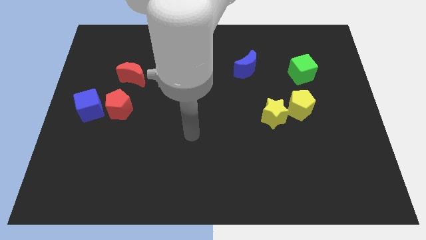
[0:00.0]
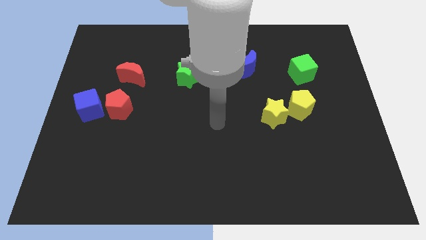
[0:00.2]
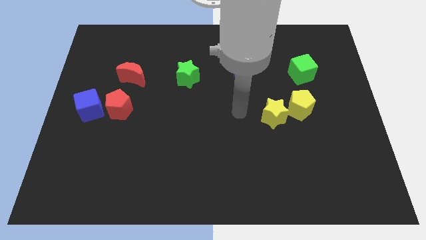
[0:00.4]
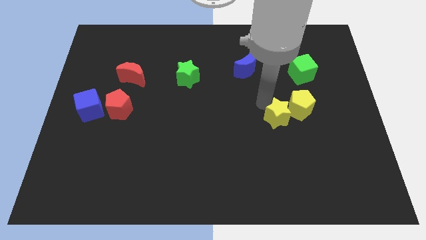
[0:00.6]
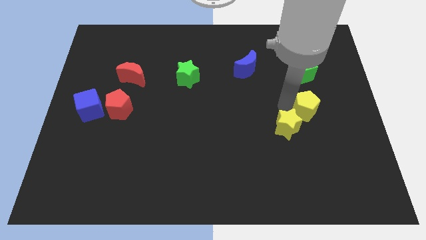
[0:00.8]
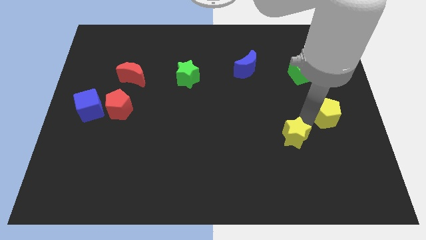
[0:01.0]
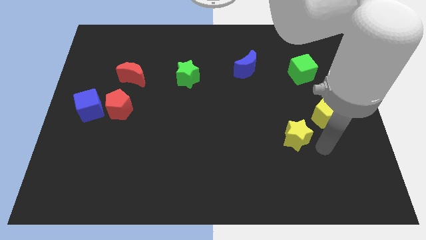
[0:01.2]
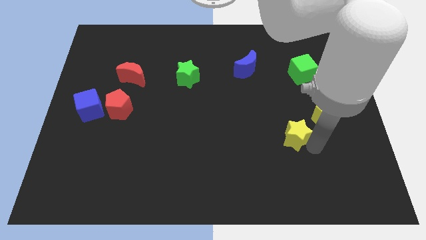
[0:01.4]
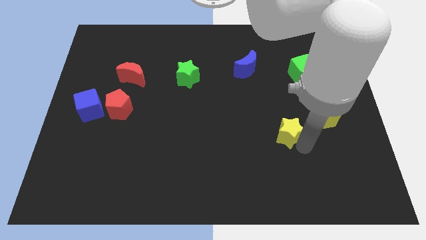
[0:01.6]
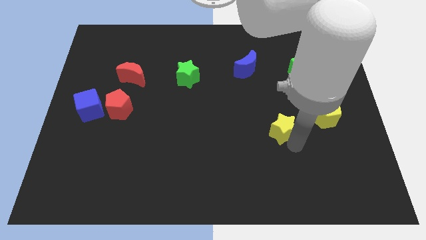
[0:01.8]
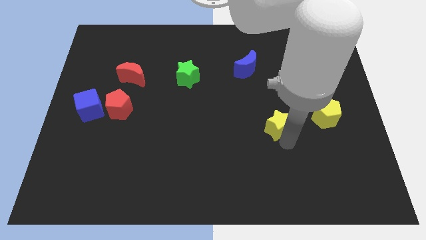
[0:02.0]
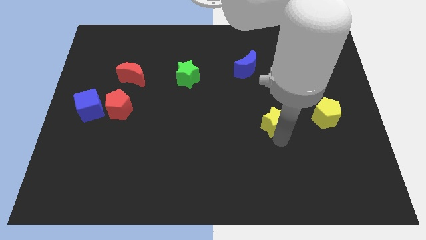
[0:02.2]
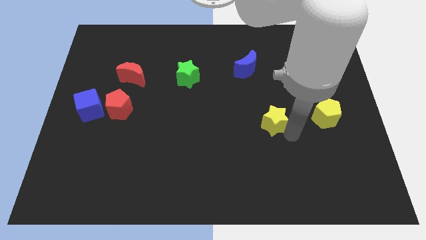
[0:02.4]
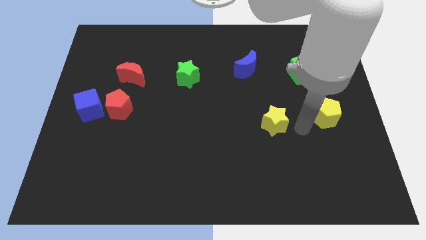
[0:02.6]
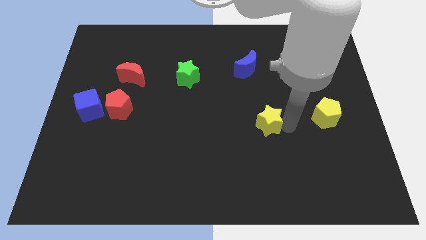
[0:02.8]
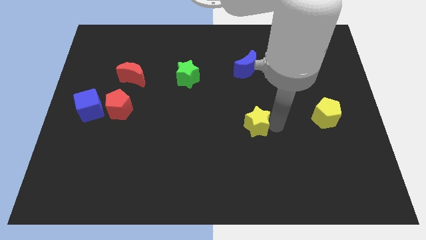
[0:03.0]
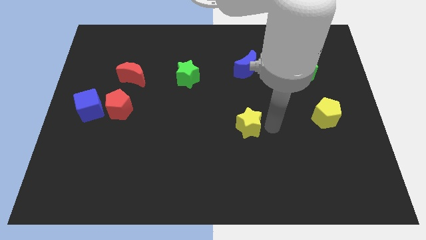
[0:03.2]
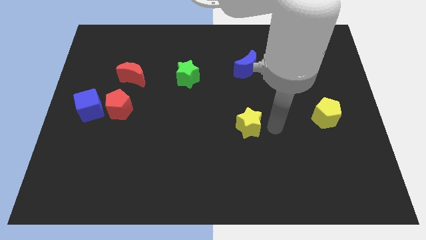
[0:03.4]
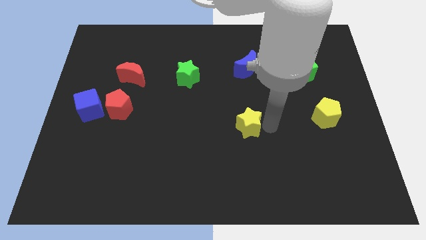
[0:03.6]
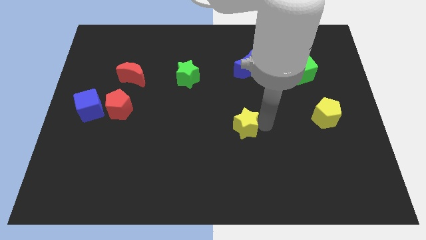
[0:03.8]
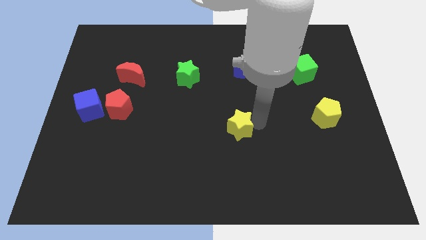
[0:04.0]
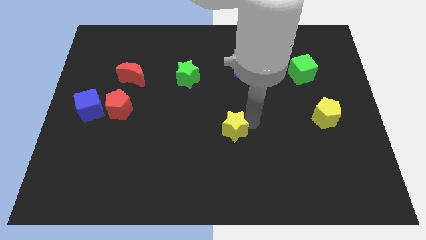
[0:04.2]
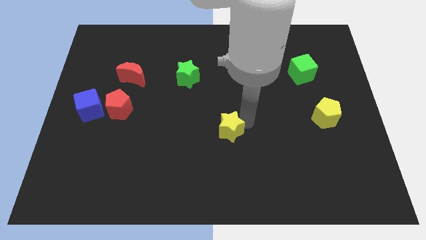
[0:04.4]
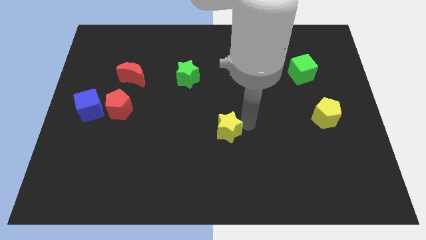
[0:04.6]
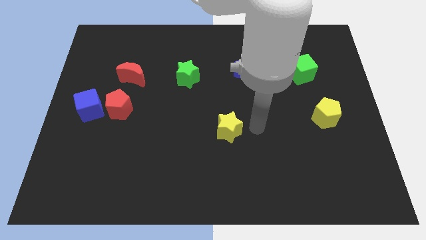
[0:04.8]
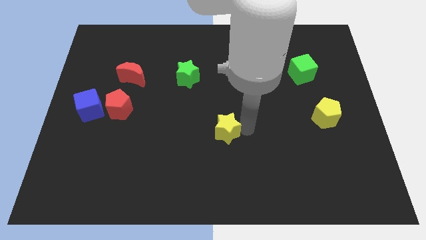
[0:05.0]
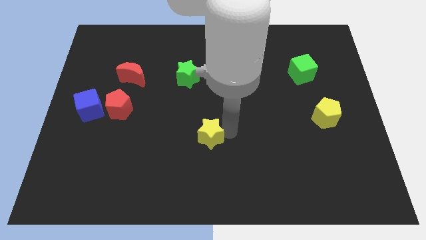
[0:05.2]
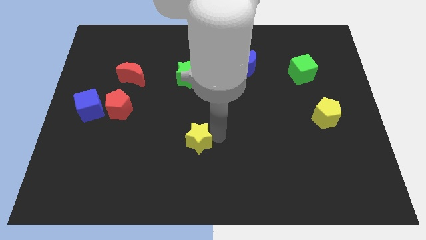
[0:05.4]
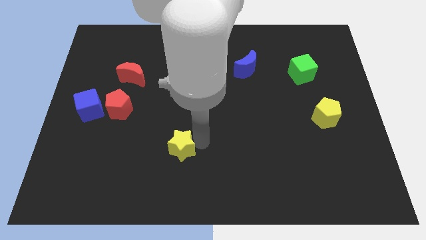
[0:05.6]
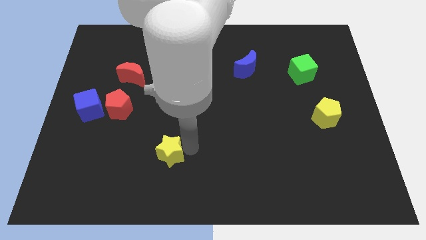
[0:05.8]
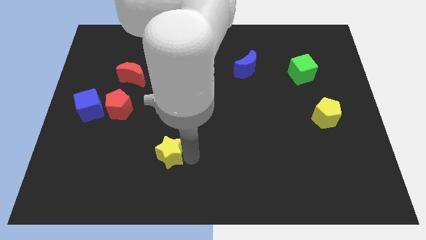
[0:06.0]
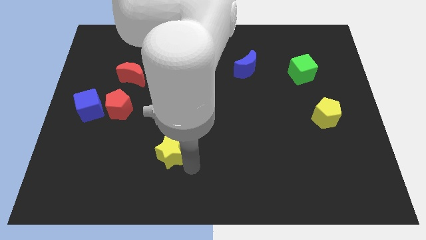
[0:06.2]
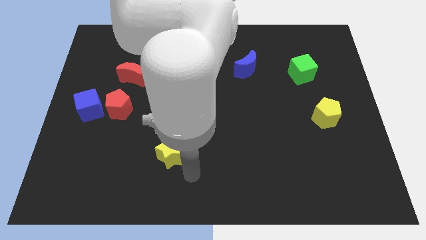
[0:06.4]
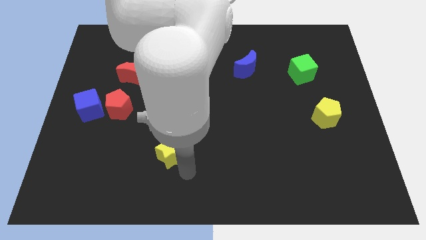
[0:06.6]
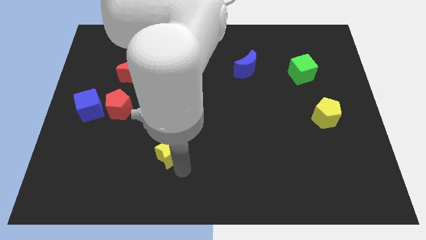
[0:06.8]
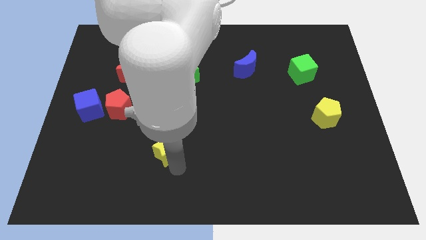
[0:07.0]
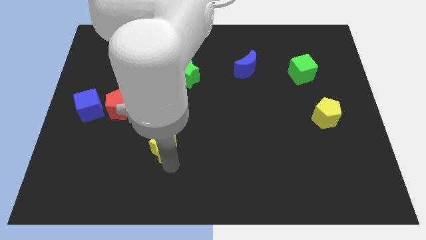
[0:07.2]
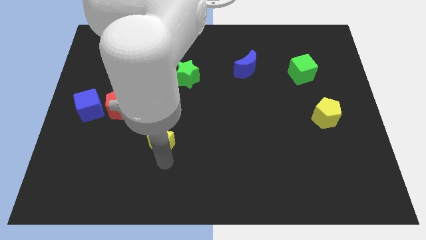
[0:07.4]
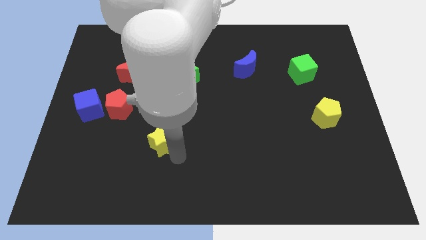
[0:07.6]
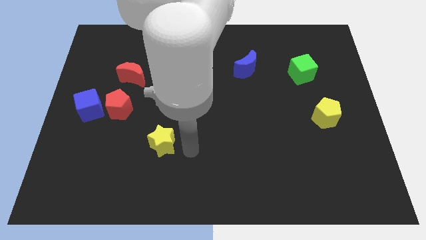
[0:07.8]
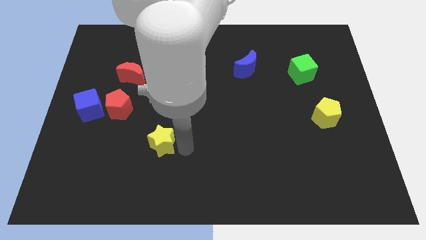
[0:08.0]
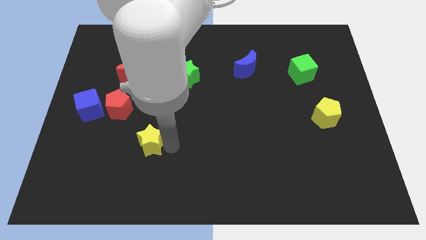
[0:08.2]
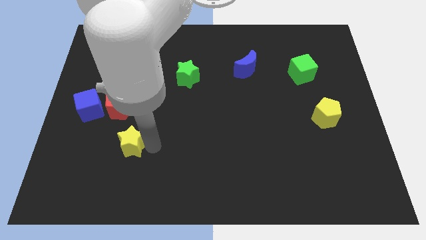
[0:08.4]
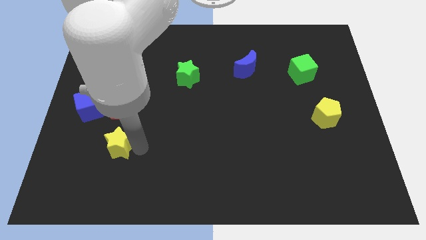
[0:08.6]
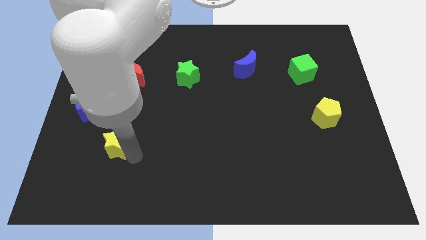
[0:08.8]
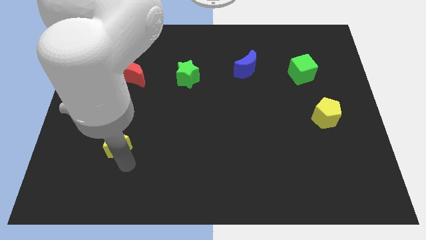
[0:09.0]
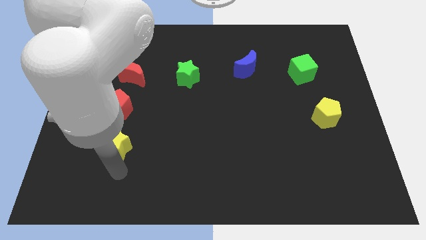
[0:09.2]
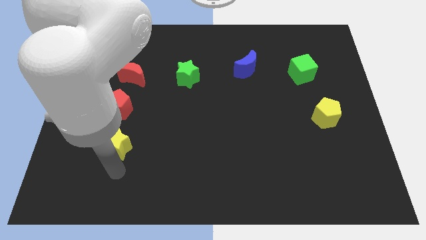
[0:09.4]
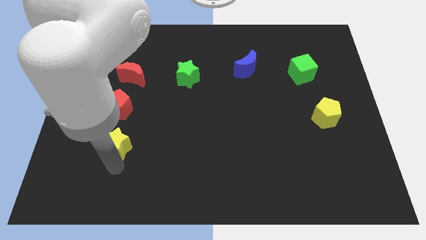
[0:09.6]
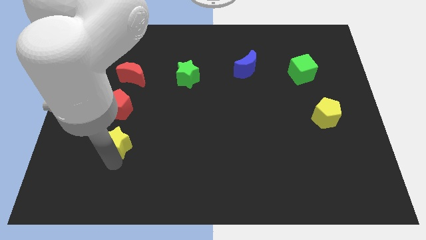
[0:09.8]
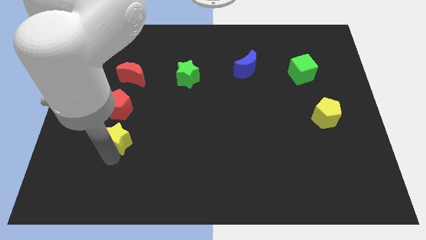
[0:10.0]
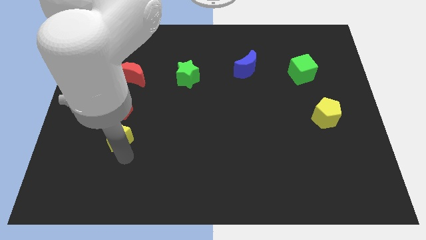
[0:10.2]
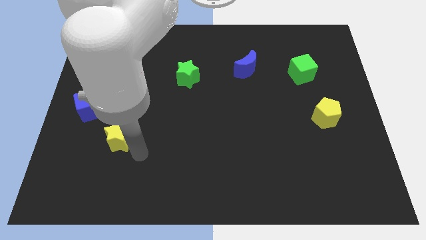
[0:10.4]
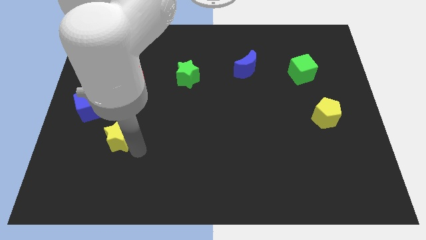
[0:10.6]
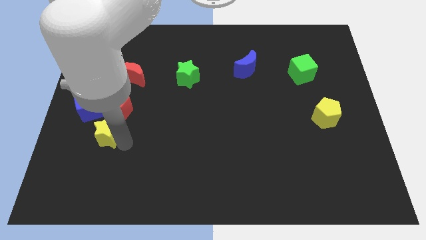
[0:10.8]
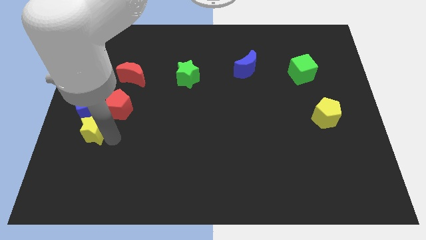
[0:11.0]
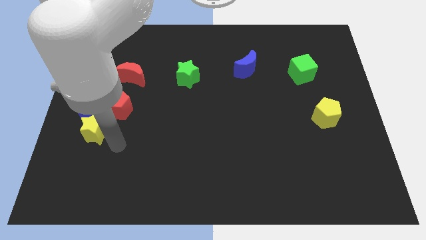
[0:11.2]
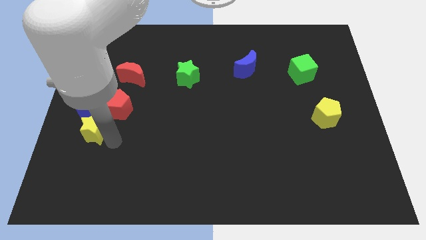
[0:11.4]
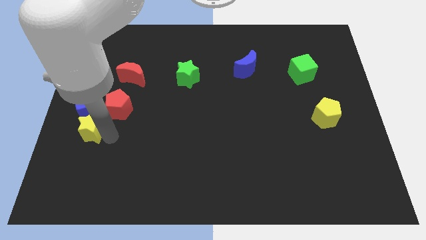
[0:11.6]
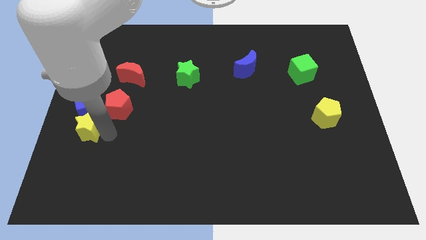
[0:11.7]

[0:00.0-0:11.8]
put the yellow star to the left side of the board

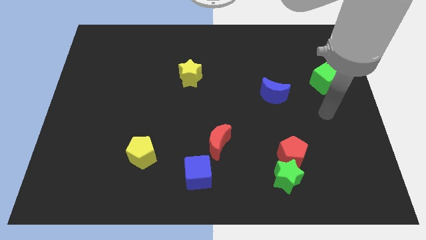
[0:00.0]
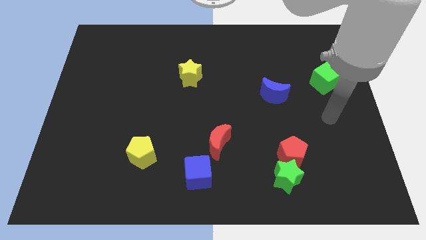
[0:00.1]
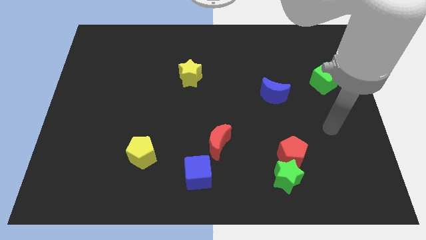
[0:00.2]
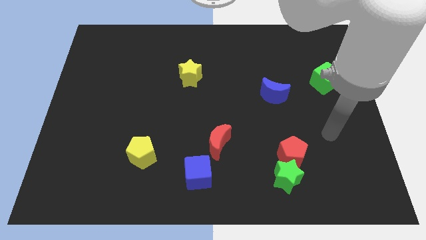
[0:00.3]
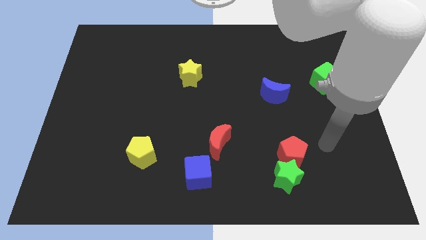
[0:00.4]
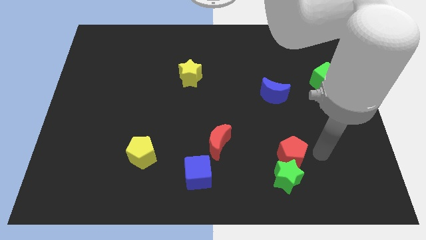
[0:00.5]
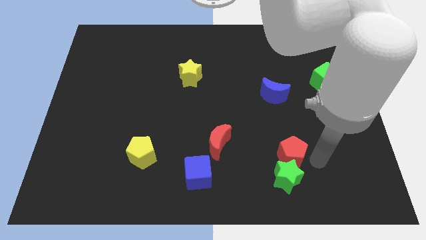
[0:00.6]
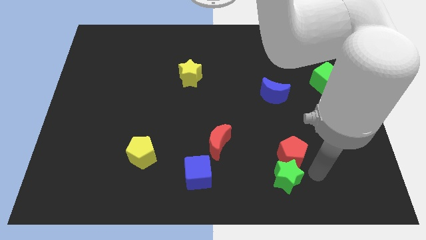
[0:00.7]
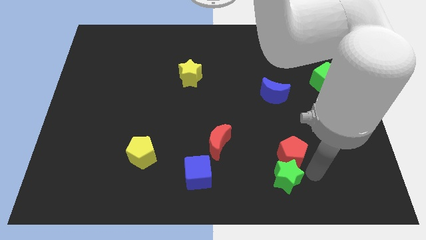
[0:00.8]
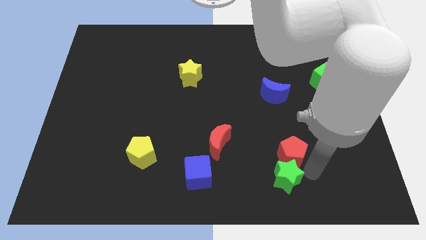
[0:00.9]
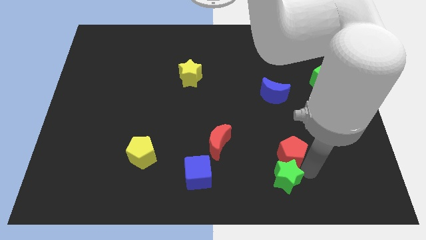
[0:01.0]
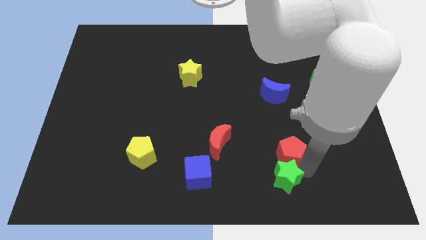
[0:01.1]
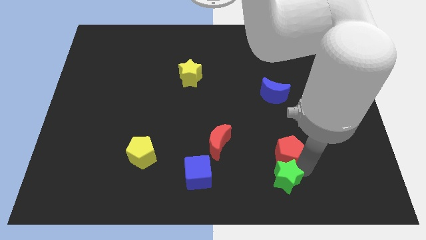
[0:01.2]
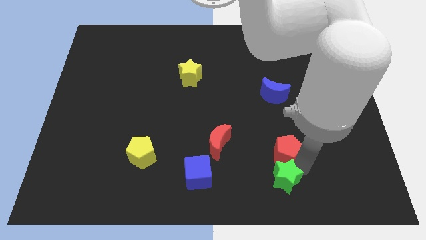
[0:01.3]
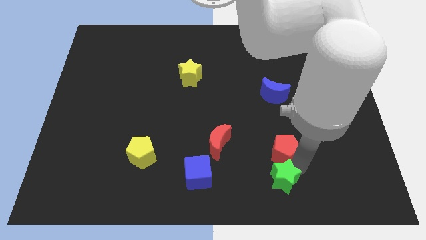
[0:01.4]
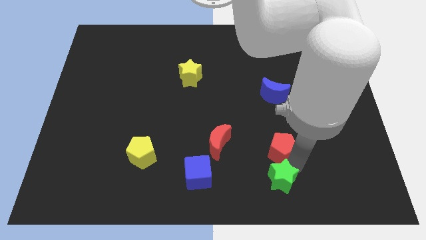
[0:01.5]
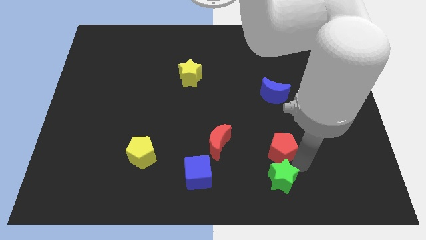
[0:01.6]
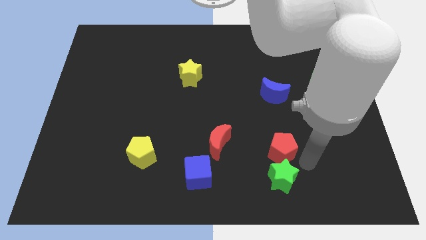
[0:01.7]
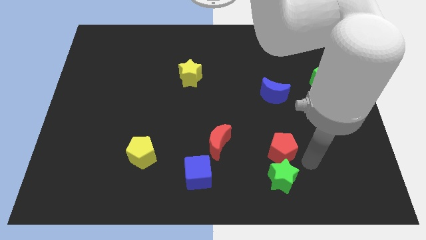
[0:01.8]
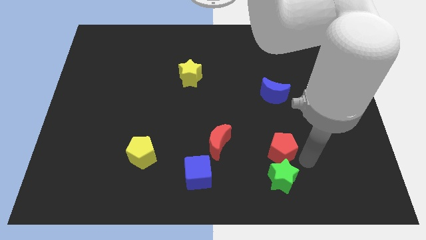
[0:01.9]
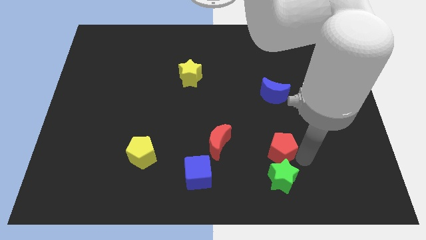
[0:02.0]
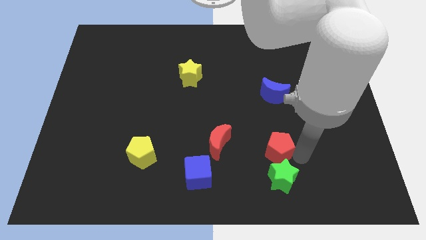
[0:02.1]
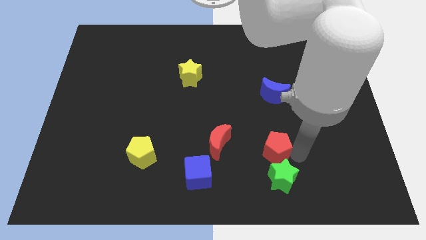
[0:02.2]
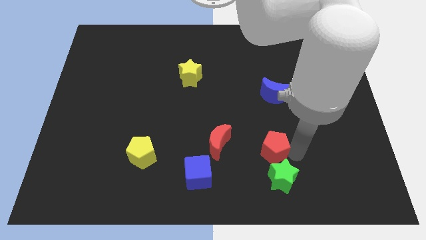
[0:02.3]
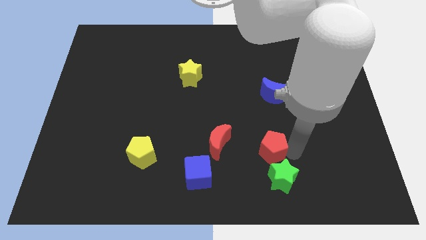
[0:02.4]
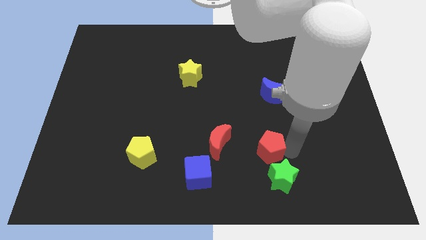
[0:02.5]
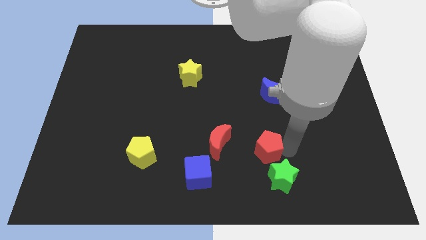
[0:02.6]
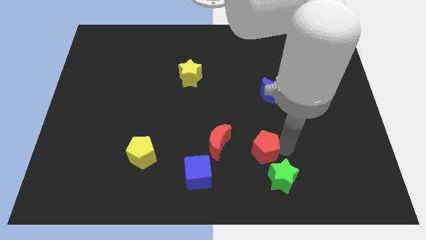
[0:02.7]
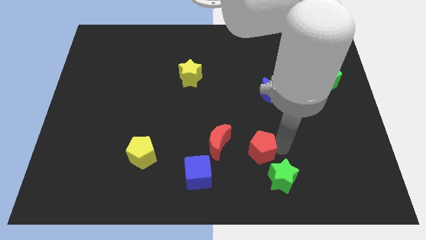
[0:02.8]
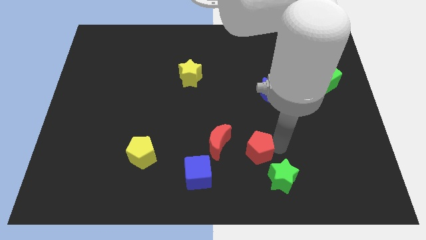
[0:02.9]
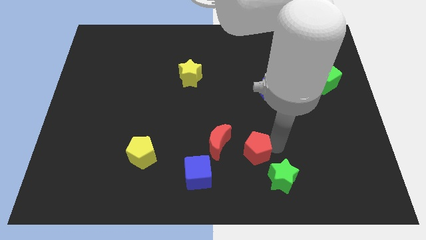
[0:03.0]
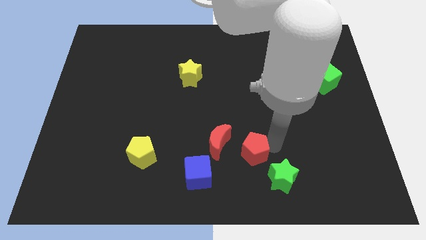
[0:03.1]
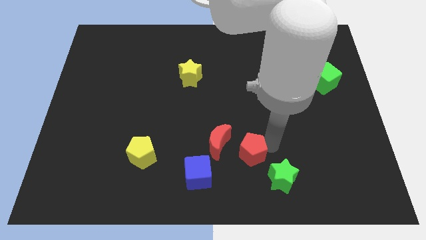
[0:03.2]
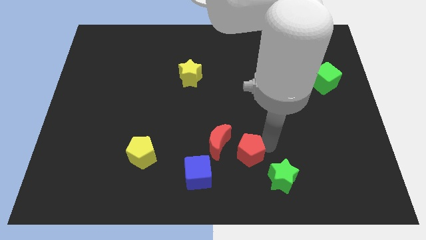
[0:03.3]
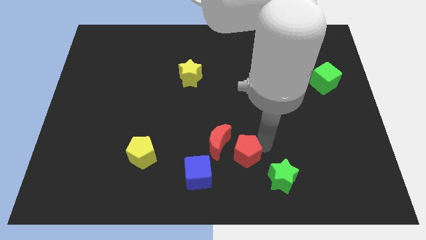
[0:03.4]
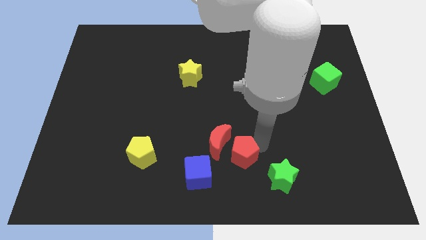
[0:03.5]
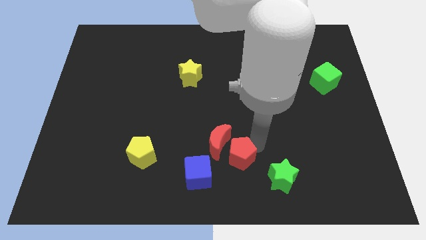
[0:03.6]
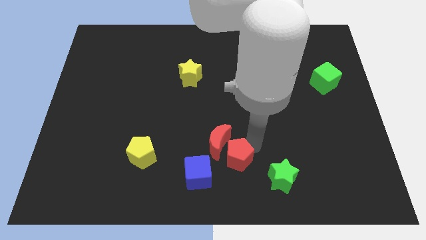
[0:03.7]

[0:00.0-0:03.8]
move the red pentagon to the bottom
